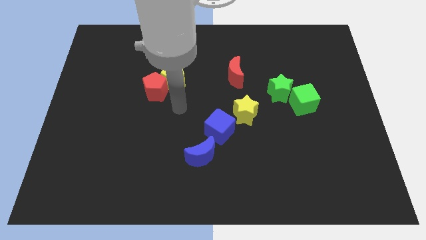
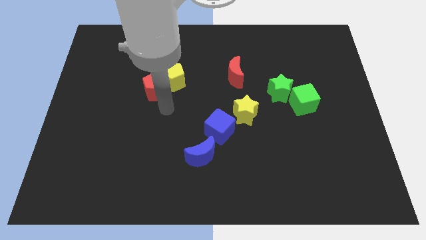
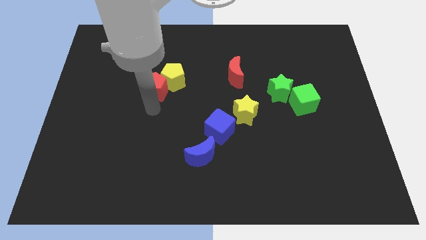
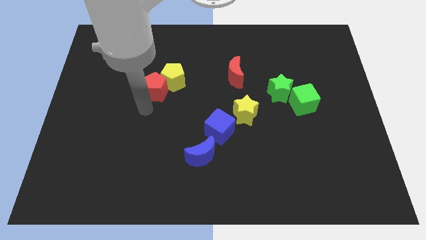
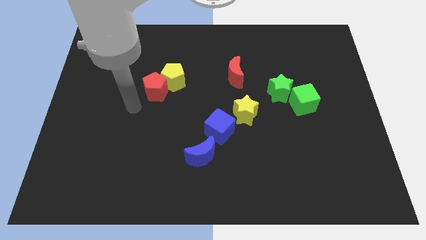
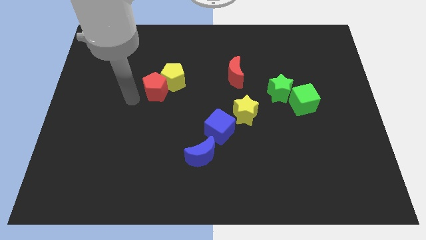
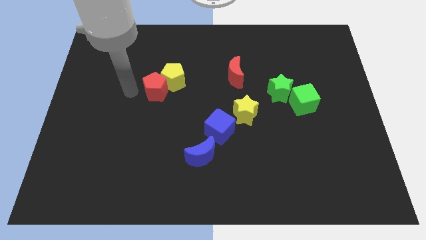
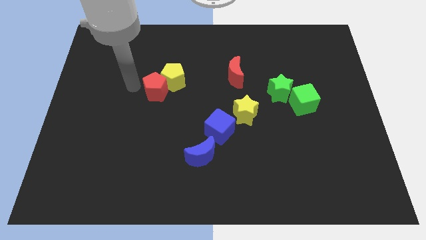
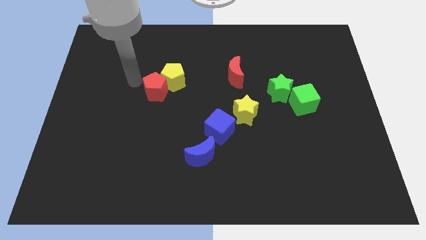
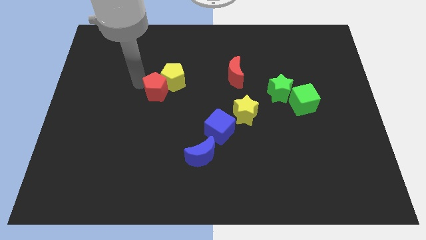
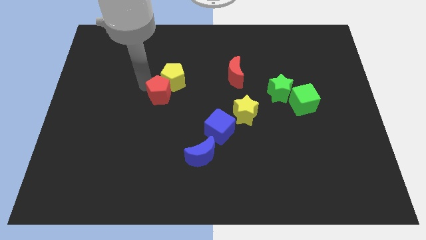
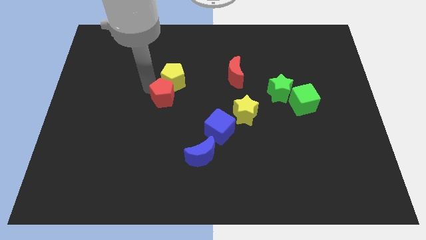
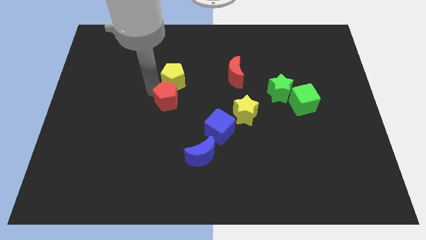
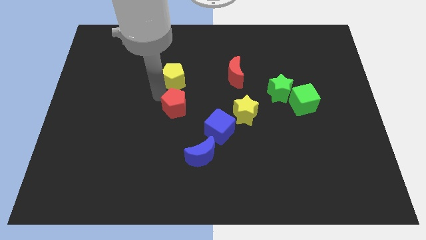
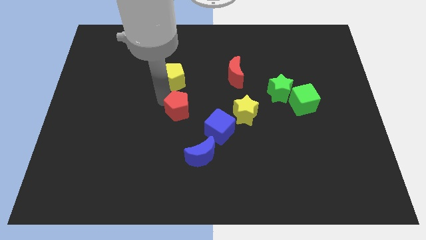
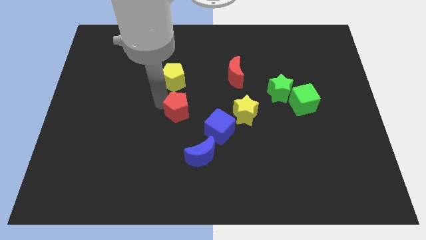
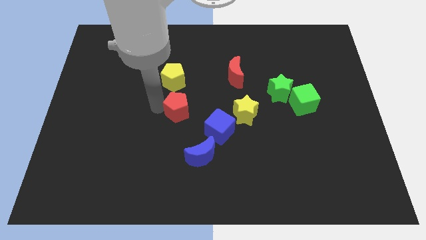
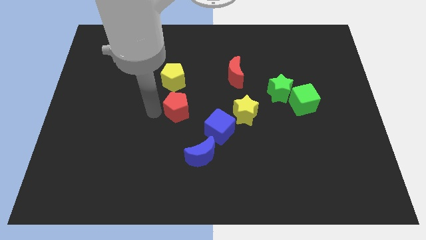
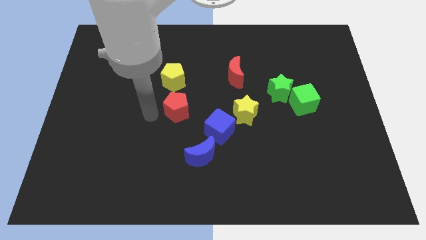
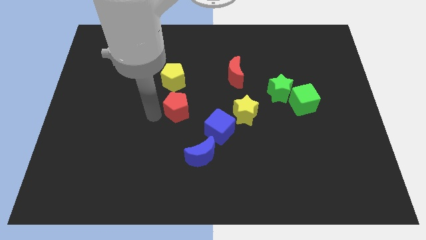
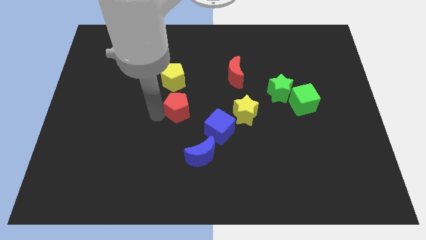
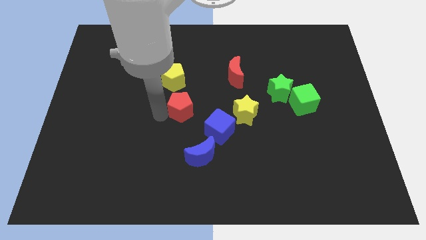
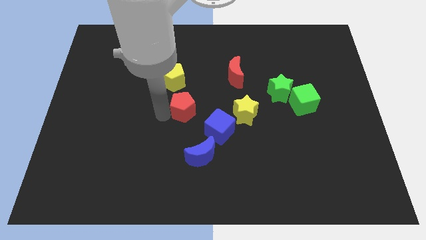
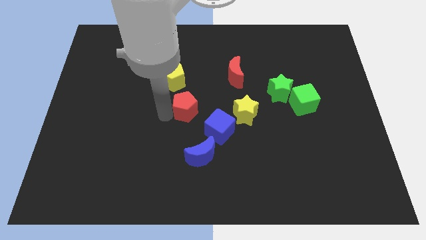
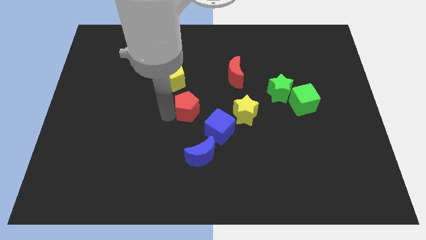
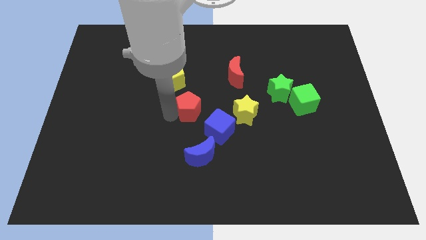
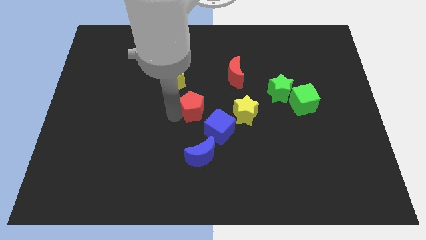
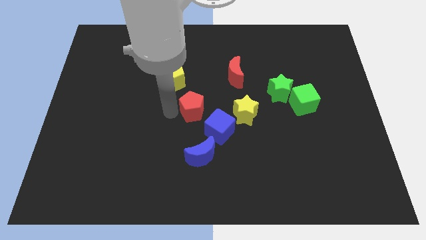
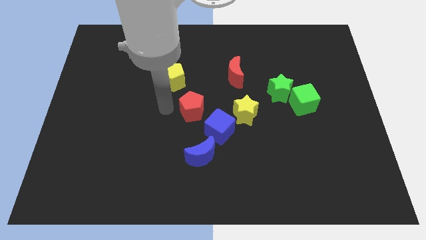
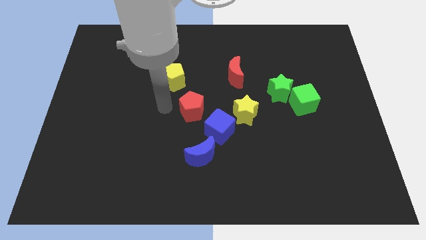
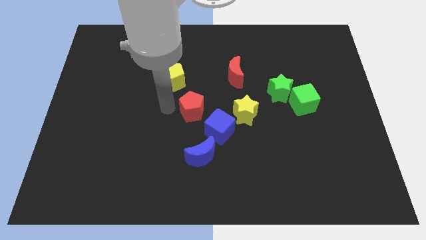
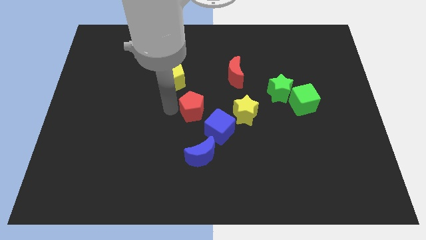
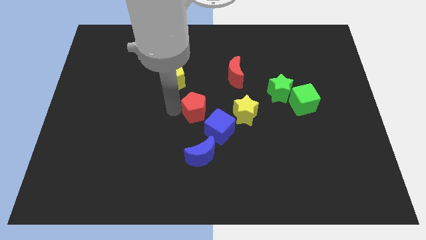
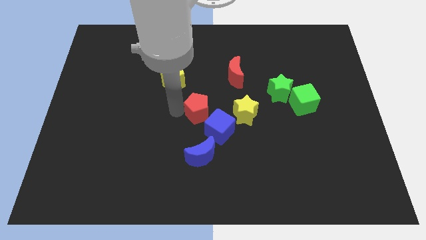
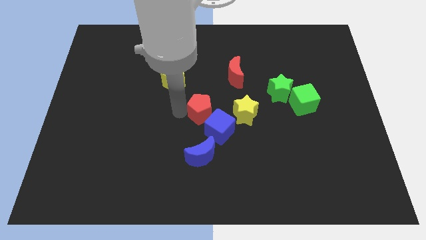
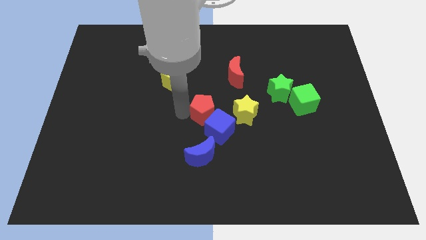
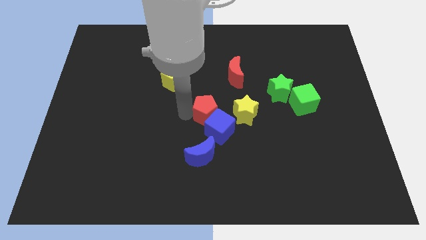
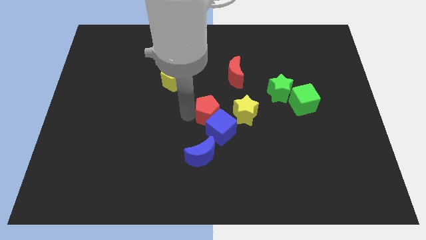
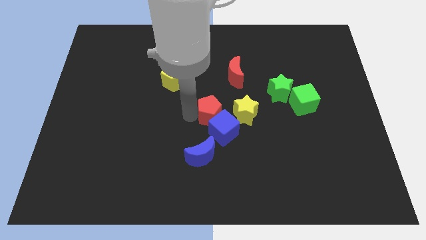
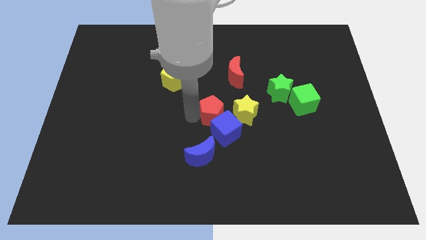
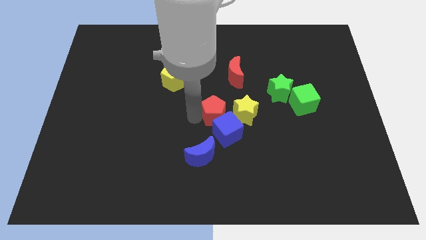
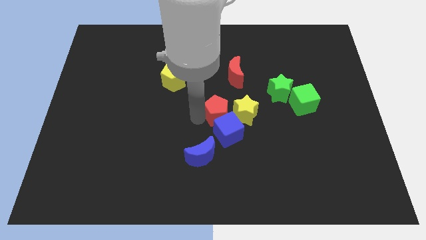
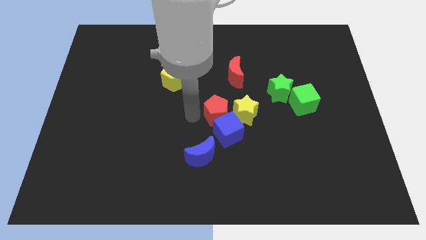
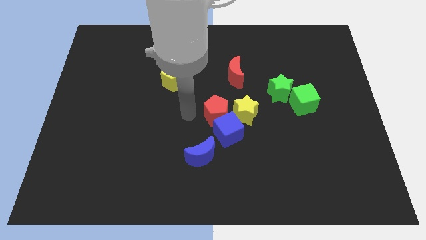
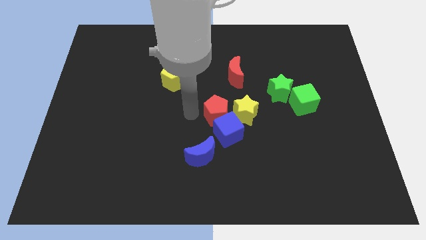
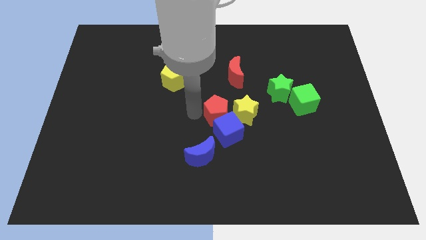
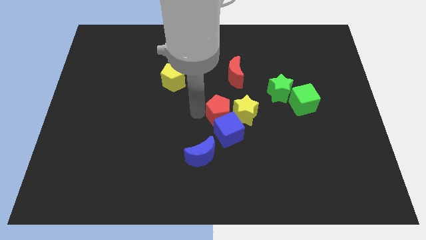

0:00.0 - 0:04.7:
move the red pentagon towards the yellow star

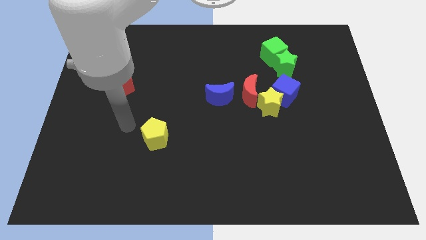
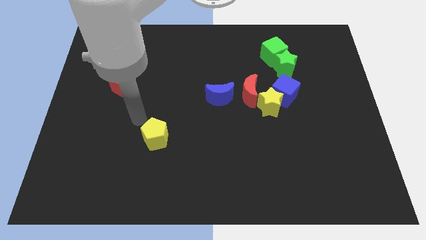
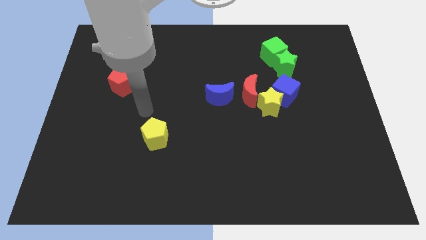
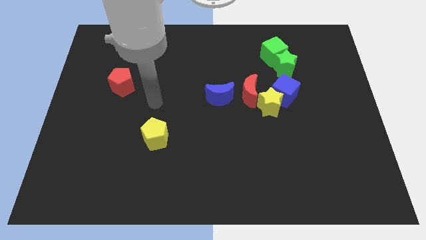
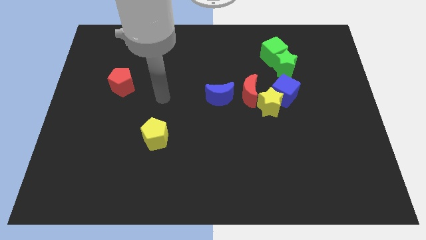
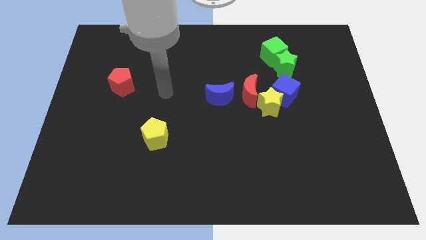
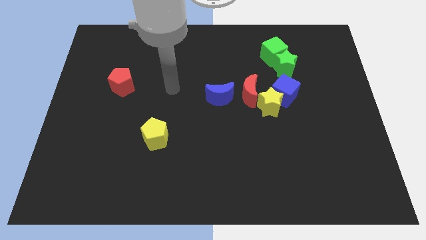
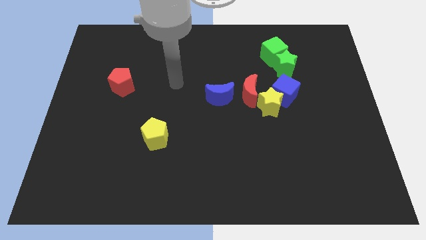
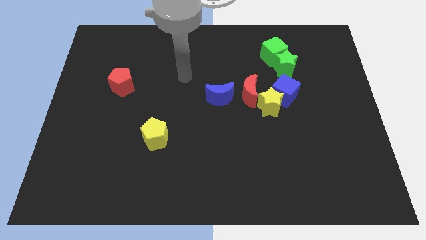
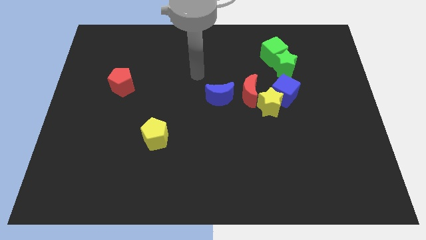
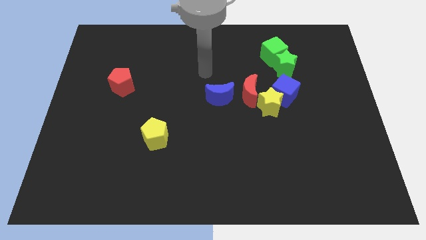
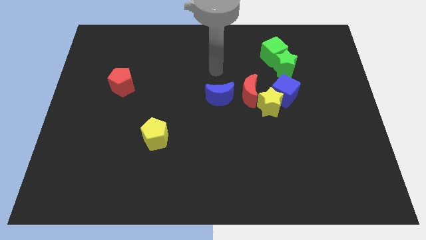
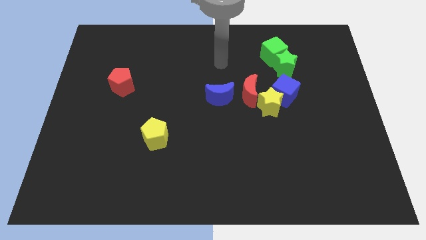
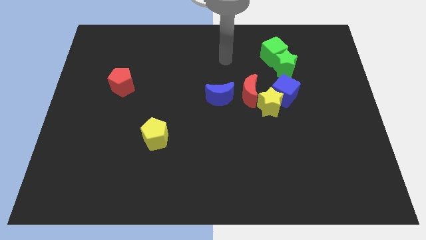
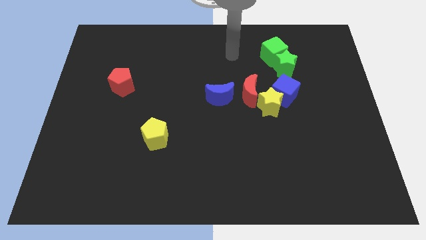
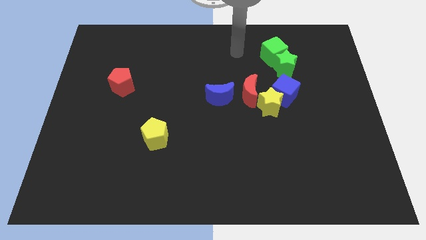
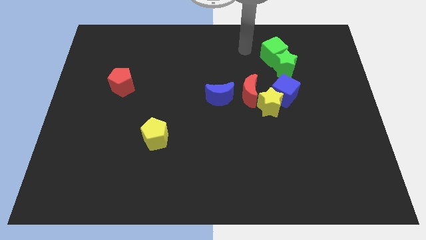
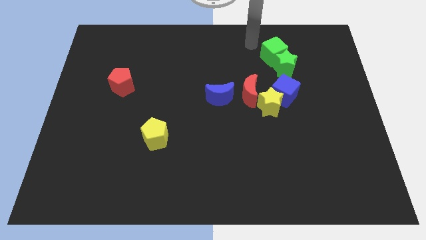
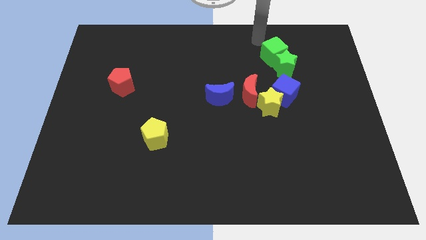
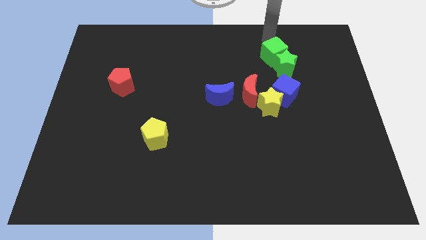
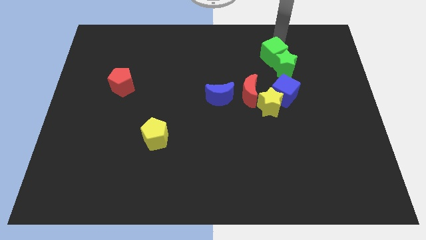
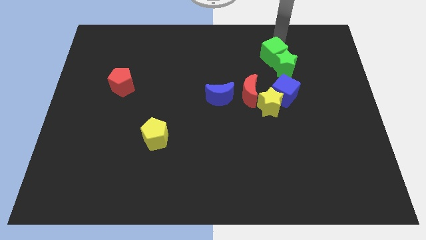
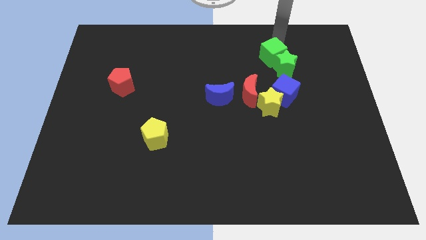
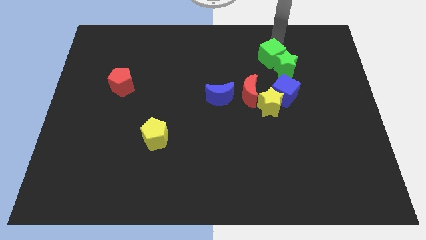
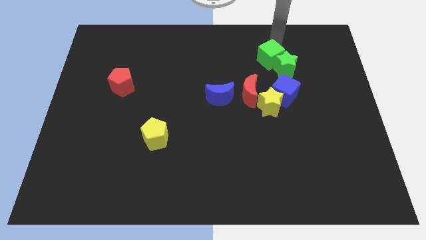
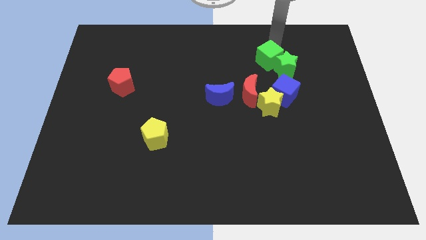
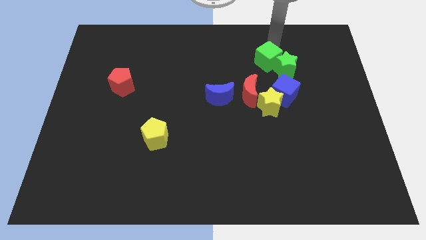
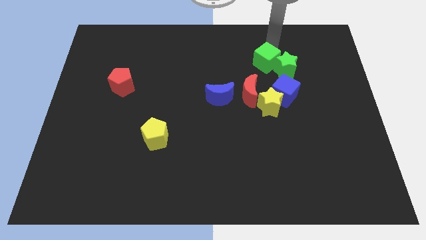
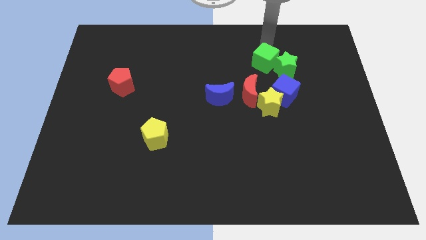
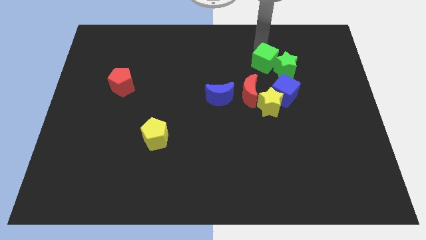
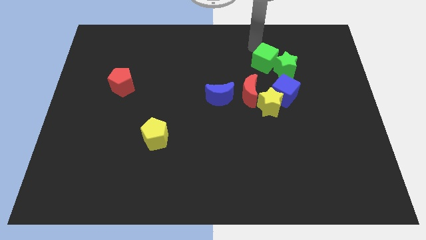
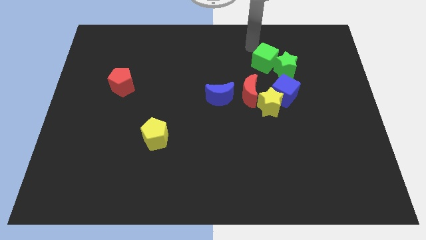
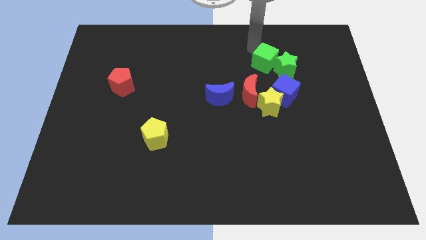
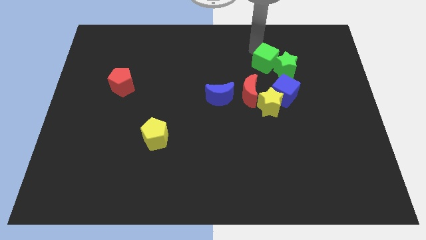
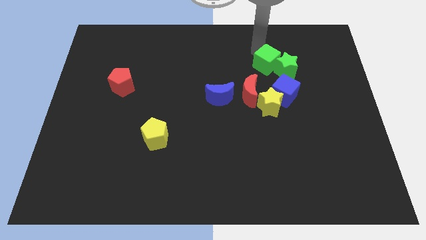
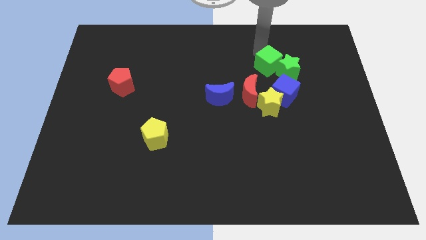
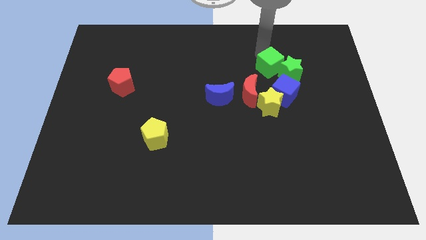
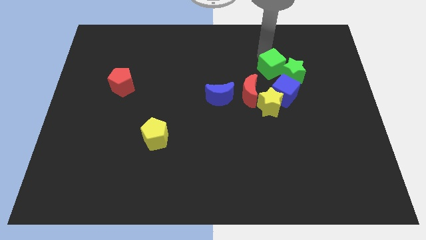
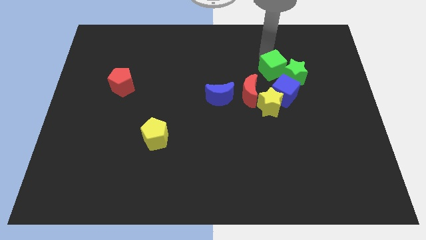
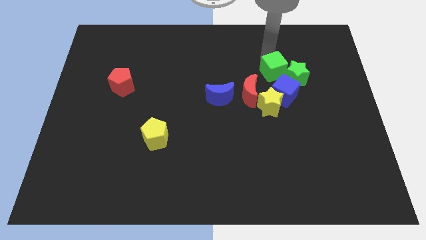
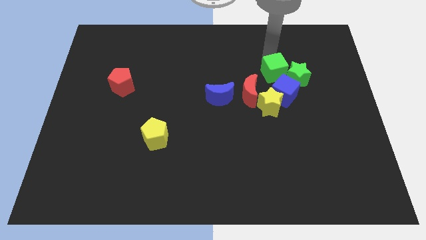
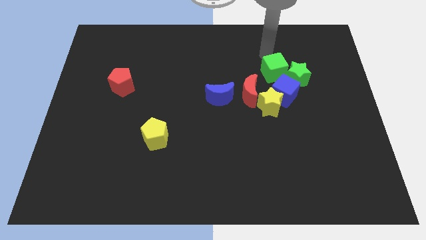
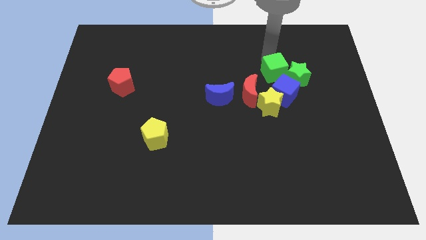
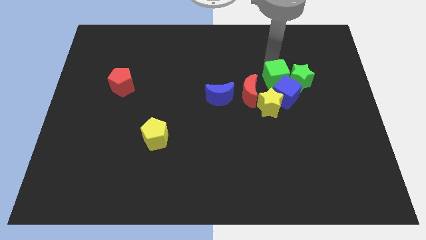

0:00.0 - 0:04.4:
put the green cube next to the blue cube
